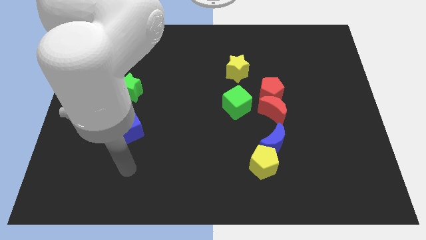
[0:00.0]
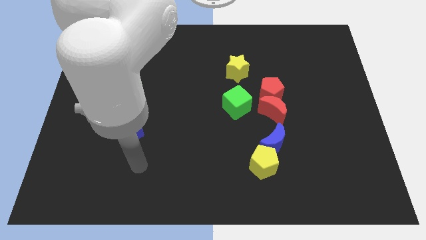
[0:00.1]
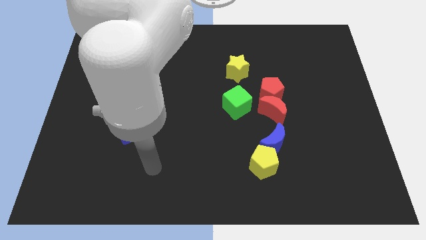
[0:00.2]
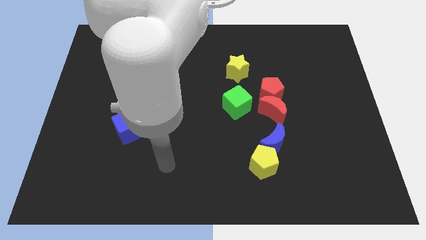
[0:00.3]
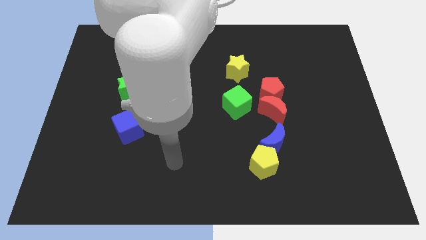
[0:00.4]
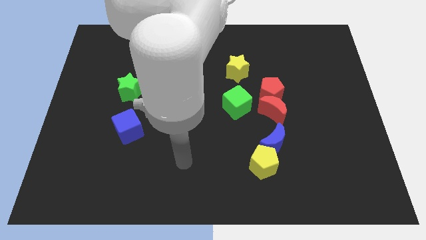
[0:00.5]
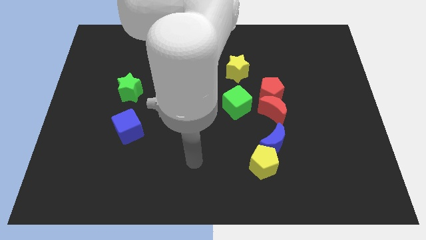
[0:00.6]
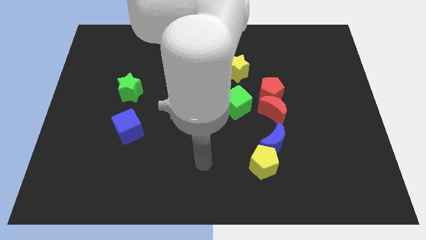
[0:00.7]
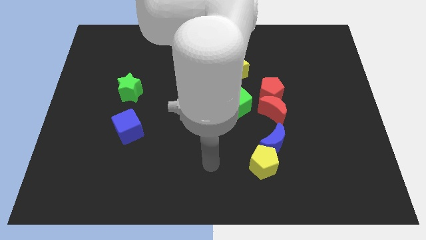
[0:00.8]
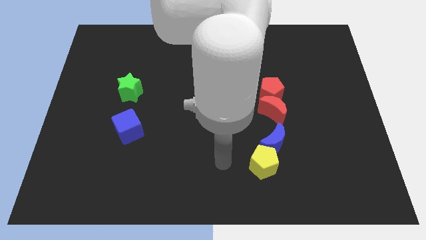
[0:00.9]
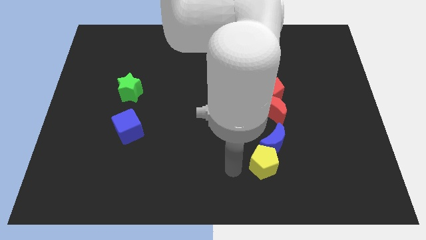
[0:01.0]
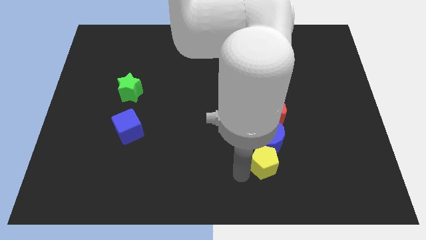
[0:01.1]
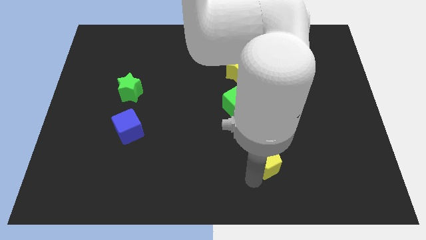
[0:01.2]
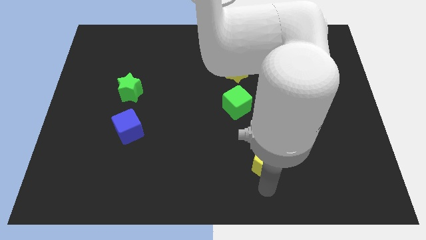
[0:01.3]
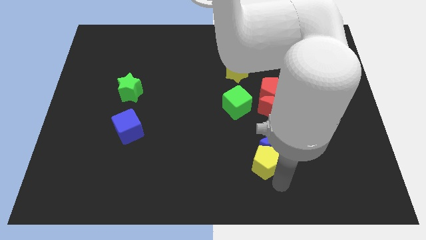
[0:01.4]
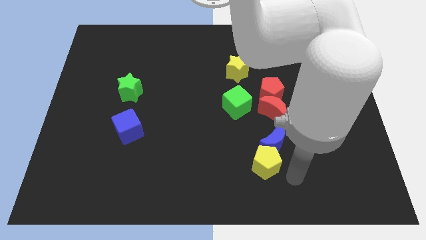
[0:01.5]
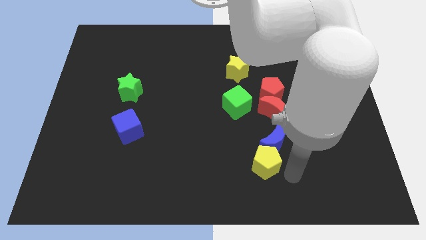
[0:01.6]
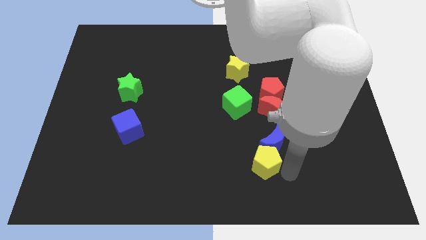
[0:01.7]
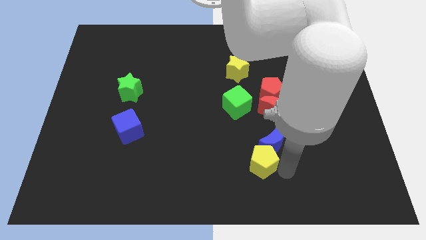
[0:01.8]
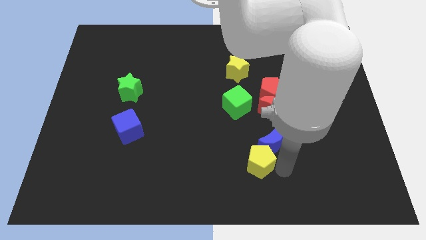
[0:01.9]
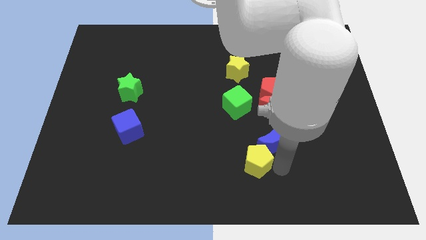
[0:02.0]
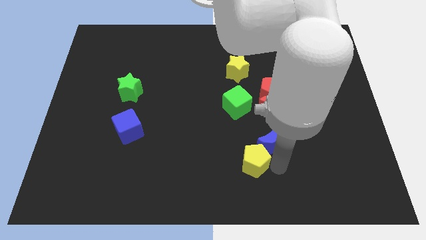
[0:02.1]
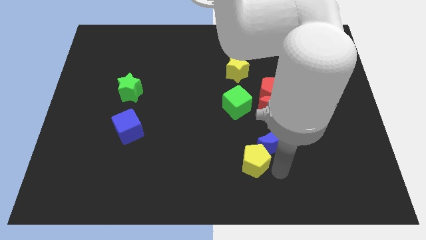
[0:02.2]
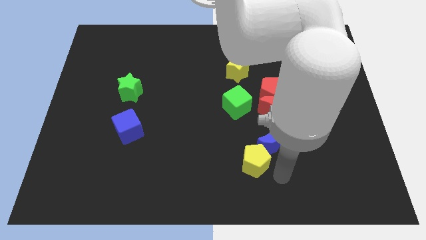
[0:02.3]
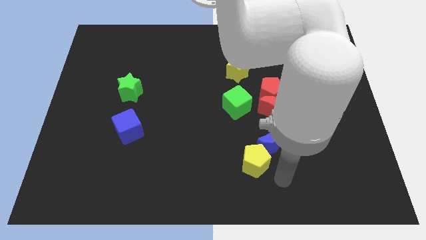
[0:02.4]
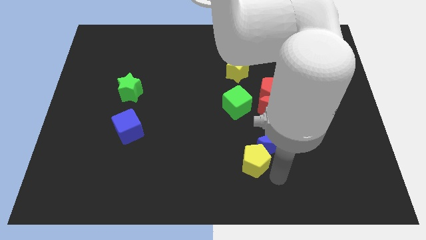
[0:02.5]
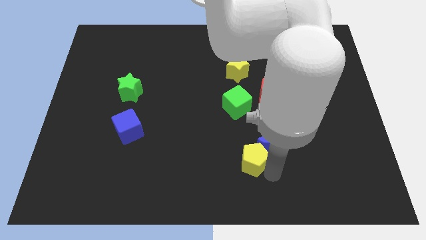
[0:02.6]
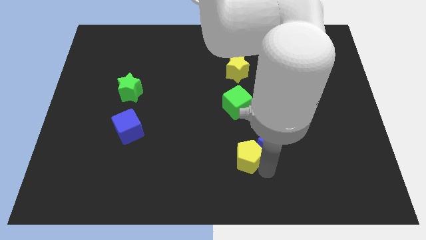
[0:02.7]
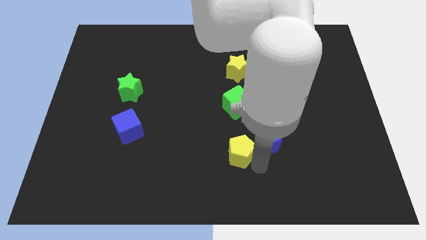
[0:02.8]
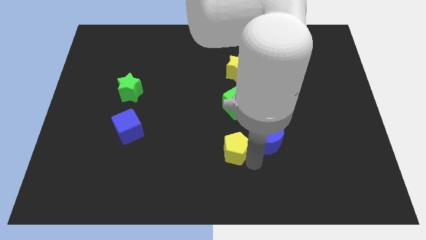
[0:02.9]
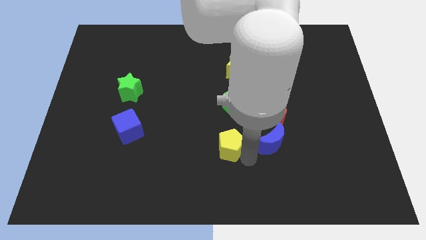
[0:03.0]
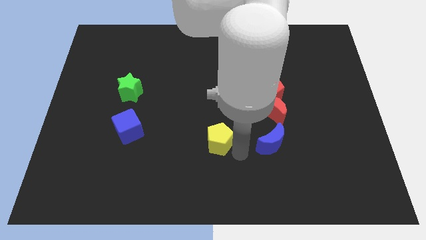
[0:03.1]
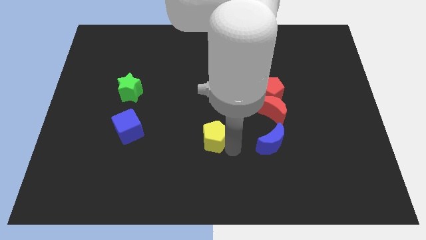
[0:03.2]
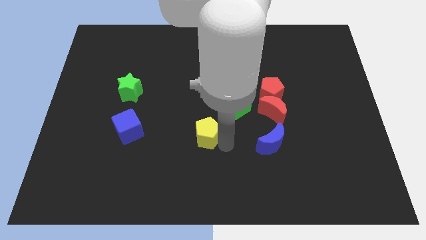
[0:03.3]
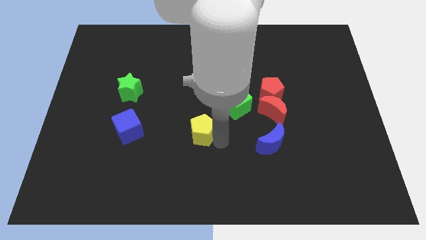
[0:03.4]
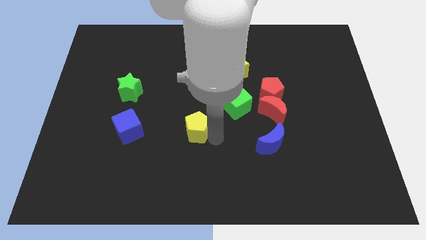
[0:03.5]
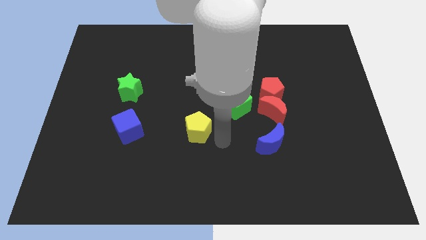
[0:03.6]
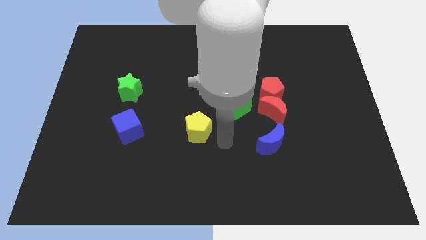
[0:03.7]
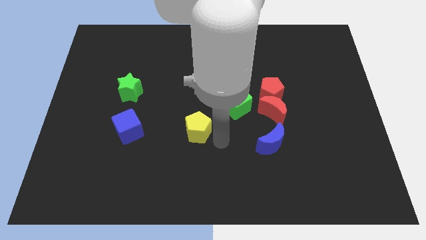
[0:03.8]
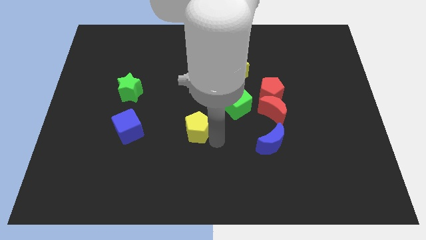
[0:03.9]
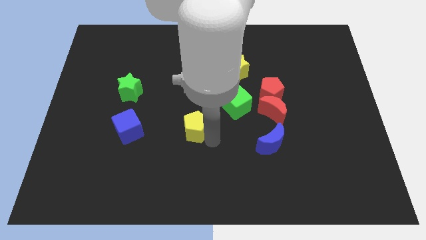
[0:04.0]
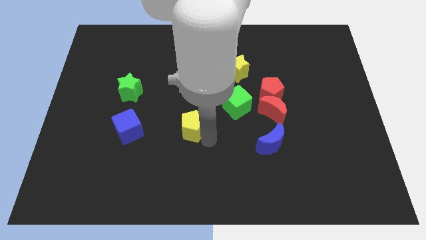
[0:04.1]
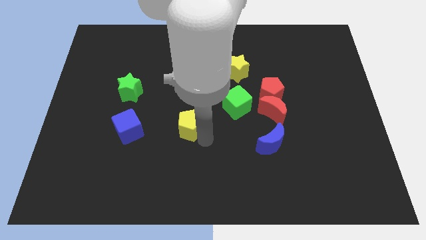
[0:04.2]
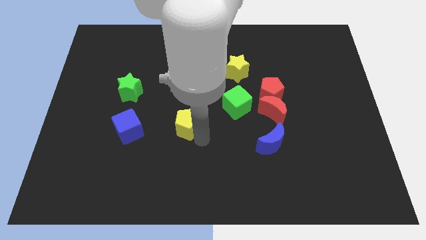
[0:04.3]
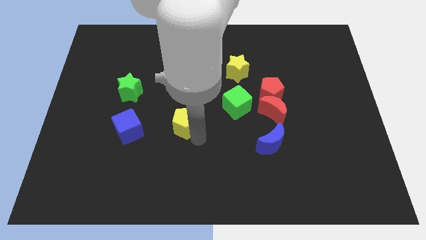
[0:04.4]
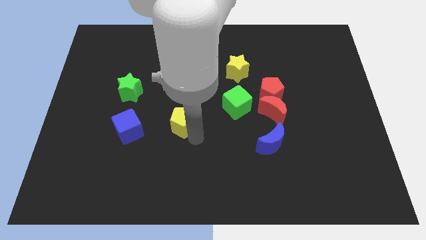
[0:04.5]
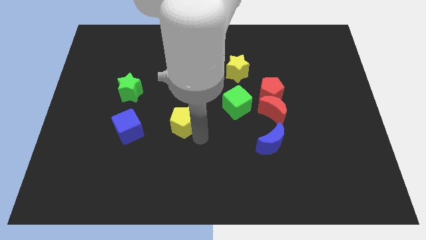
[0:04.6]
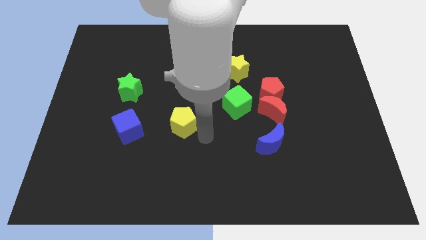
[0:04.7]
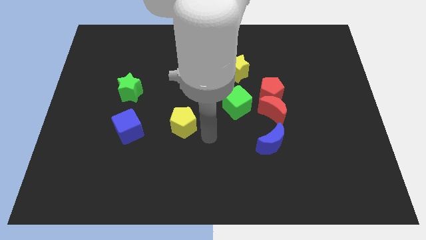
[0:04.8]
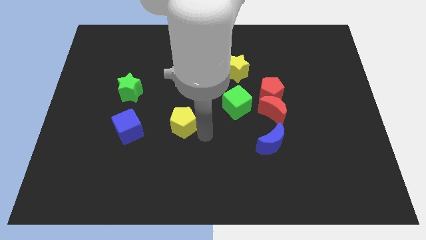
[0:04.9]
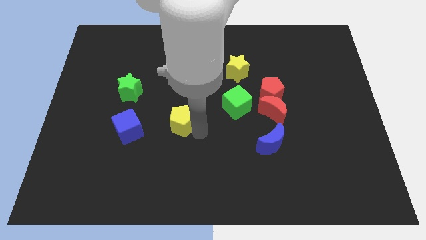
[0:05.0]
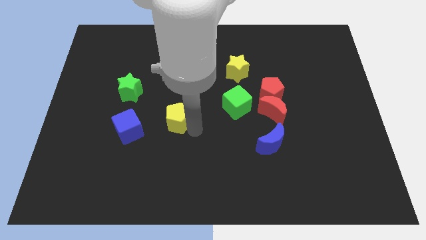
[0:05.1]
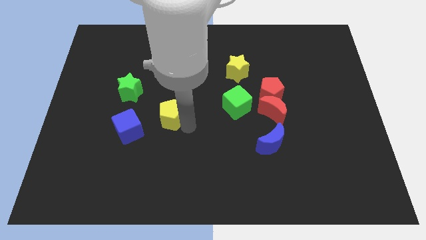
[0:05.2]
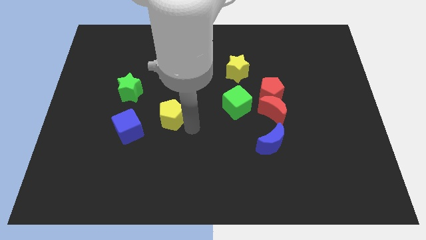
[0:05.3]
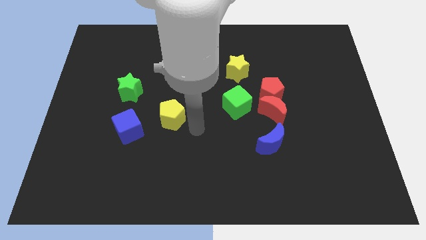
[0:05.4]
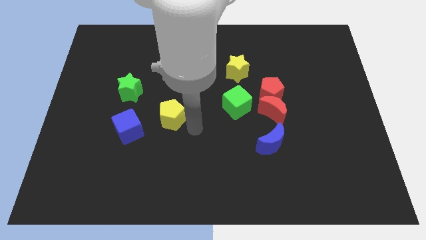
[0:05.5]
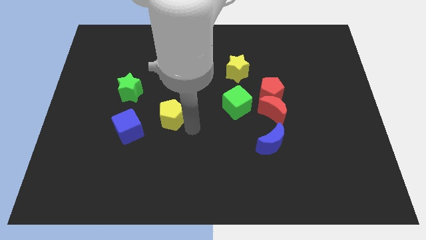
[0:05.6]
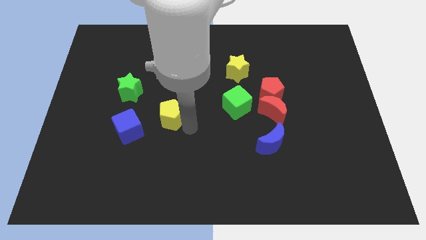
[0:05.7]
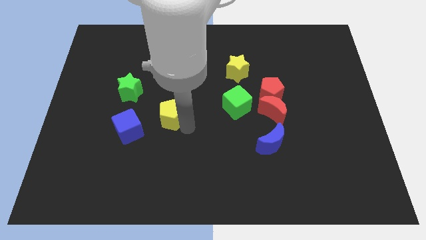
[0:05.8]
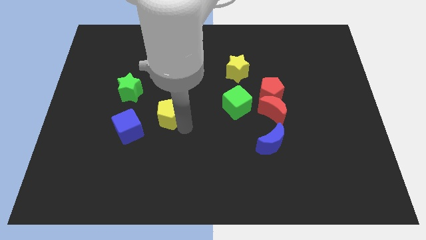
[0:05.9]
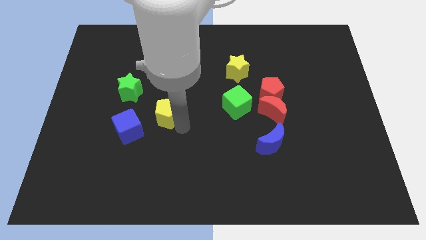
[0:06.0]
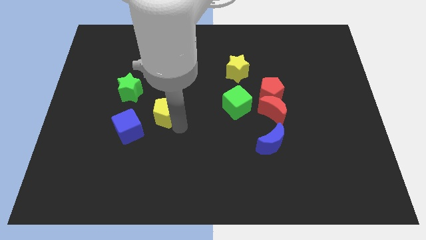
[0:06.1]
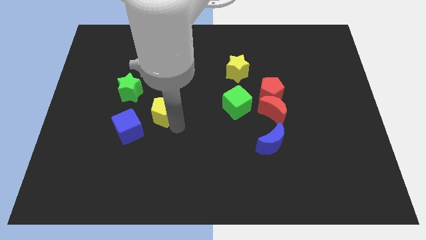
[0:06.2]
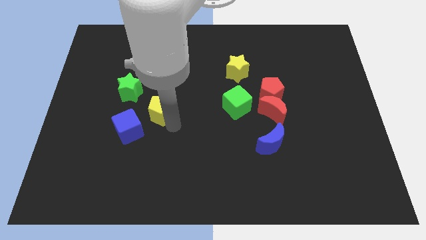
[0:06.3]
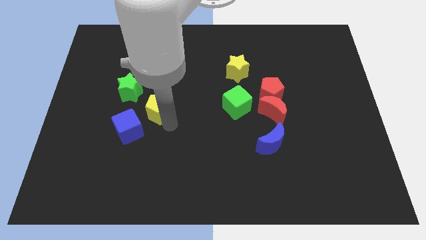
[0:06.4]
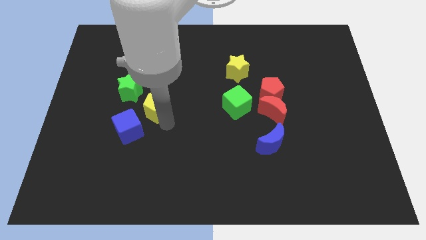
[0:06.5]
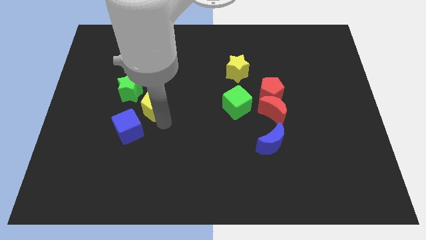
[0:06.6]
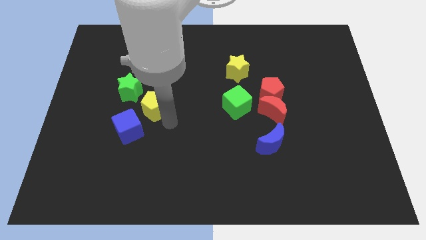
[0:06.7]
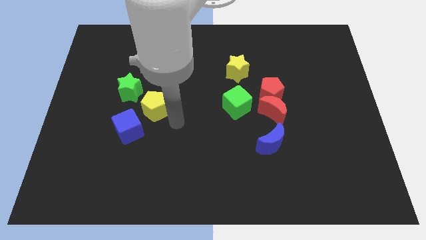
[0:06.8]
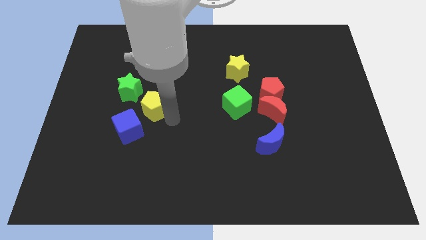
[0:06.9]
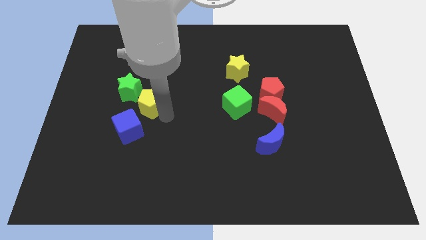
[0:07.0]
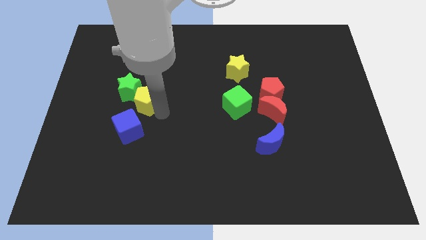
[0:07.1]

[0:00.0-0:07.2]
slide the yellow pentagon to the green star
